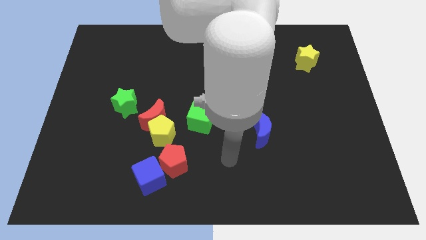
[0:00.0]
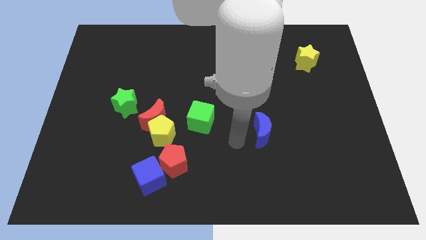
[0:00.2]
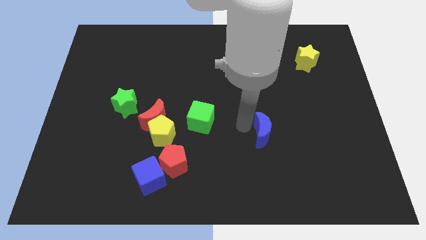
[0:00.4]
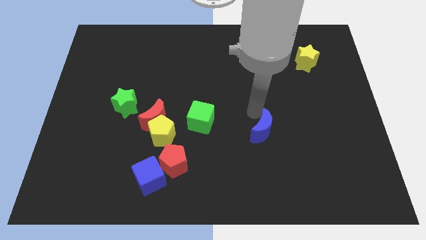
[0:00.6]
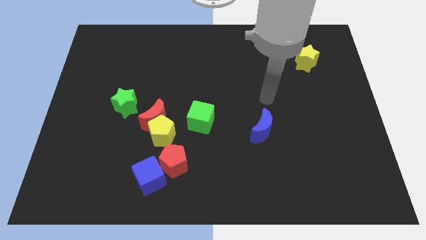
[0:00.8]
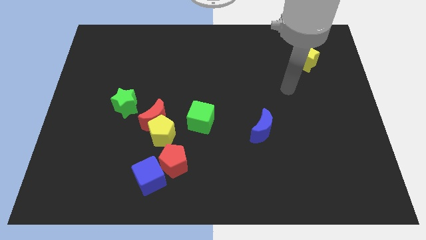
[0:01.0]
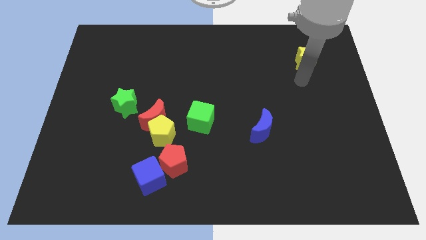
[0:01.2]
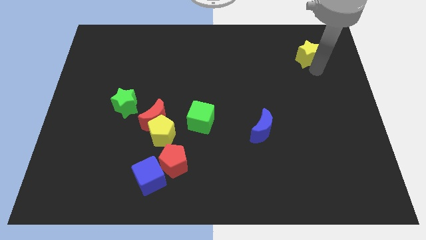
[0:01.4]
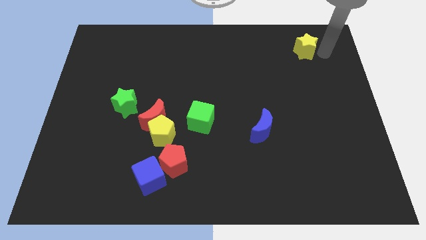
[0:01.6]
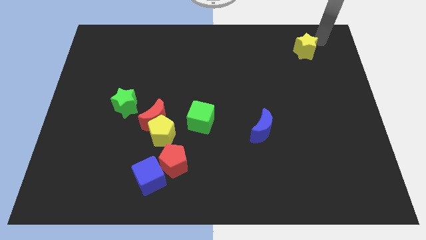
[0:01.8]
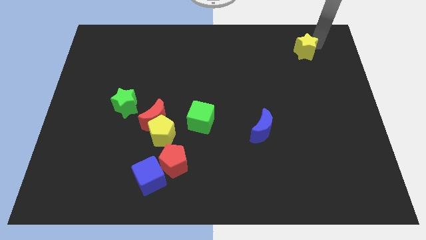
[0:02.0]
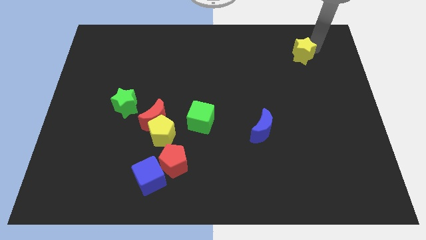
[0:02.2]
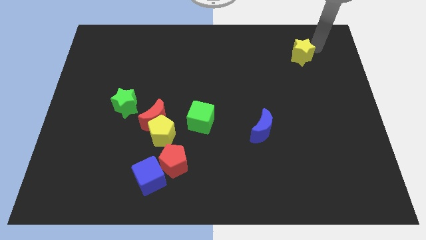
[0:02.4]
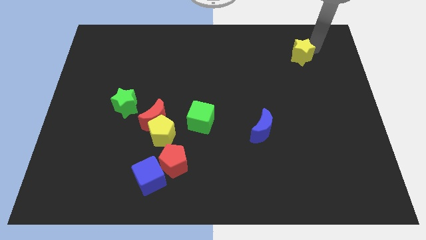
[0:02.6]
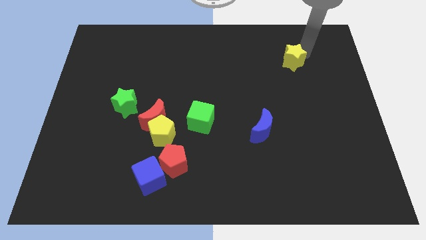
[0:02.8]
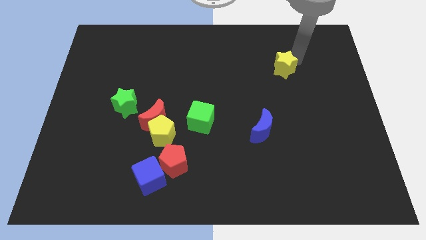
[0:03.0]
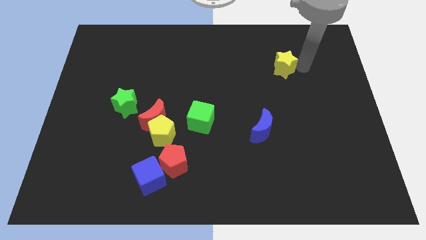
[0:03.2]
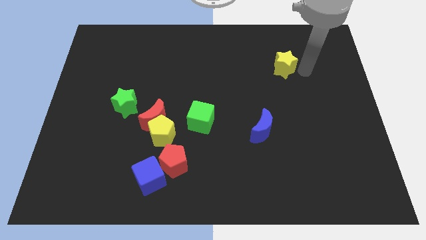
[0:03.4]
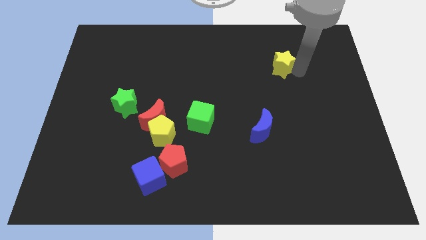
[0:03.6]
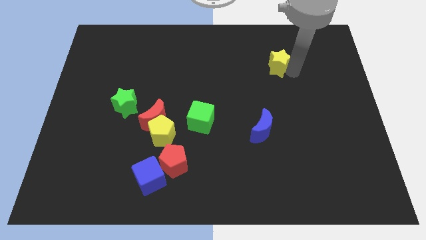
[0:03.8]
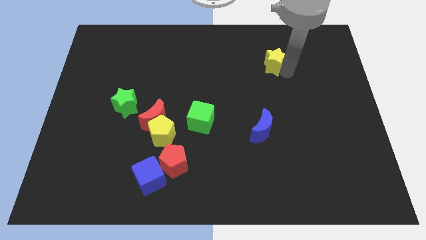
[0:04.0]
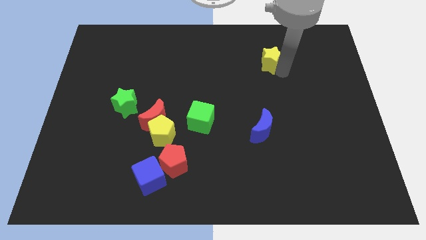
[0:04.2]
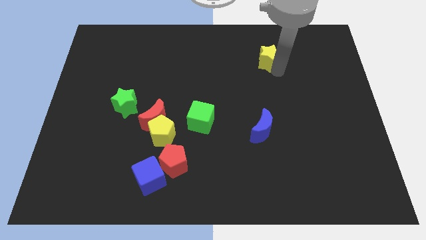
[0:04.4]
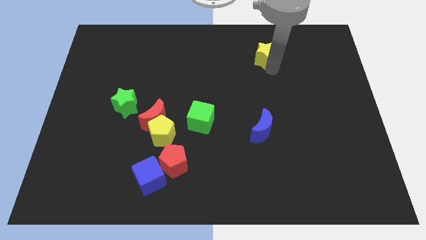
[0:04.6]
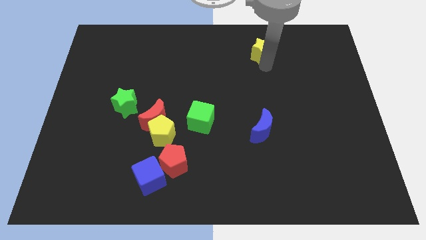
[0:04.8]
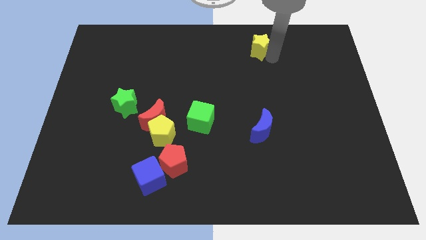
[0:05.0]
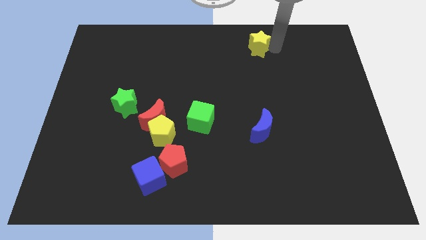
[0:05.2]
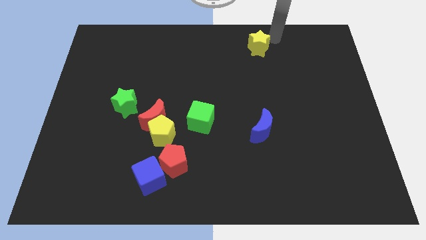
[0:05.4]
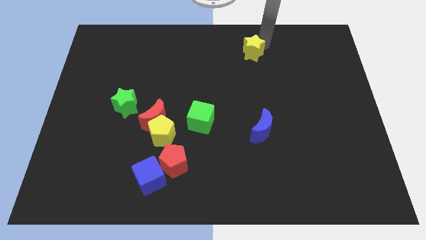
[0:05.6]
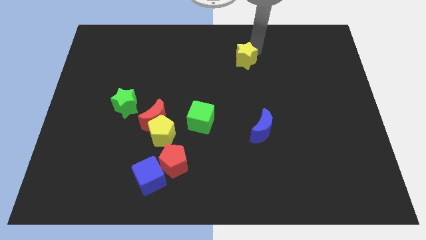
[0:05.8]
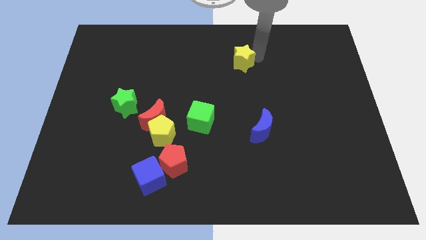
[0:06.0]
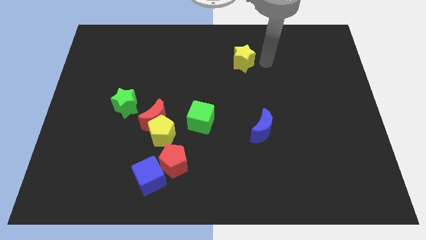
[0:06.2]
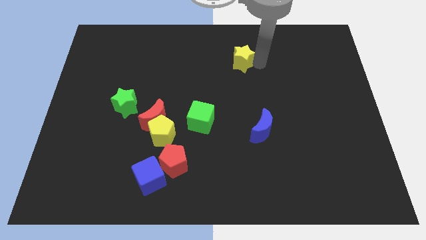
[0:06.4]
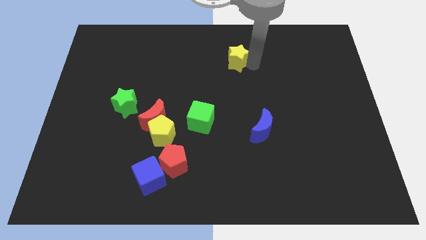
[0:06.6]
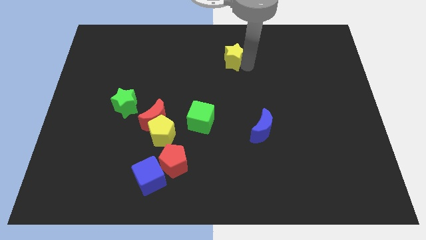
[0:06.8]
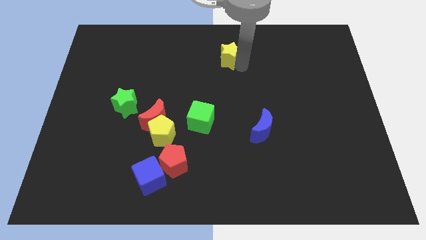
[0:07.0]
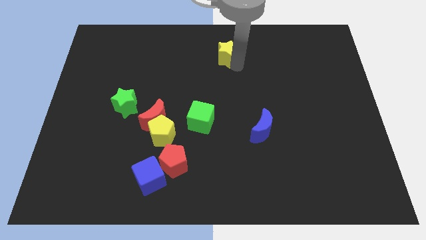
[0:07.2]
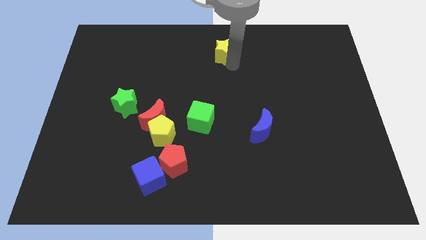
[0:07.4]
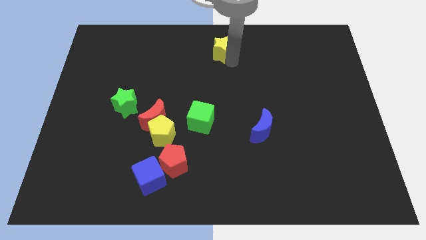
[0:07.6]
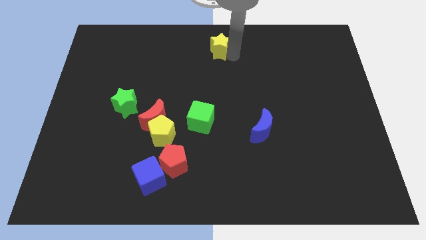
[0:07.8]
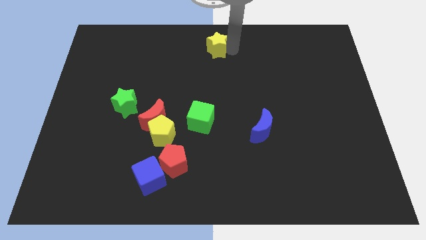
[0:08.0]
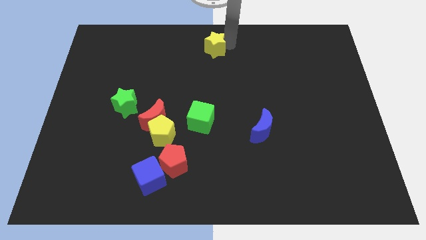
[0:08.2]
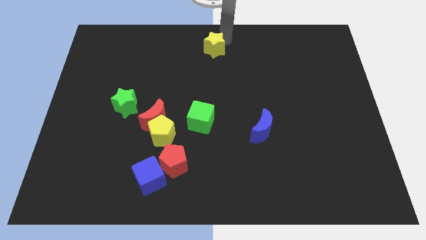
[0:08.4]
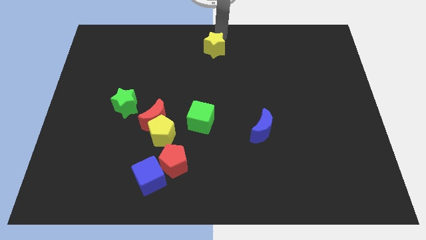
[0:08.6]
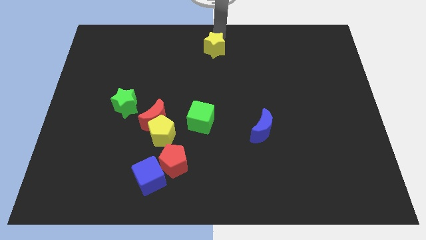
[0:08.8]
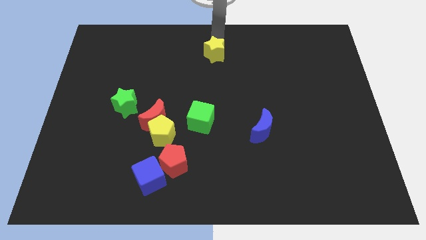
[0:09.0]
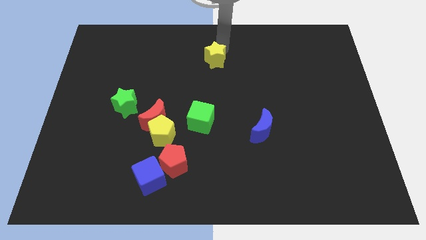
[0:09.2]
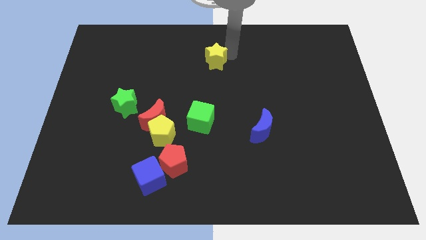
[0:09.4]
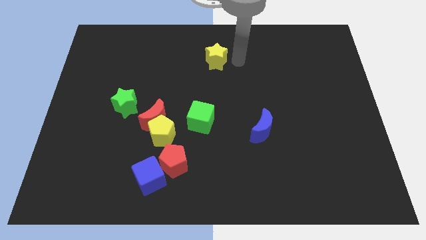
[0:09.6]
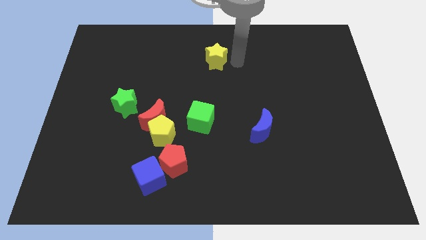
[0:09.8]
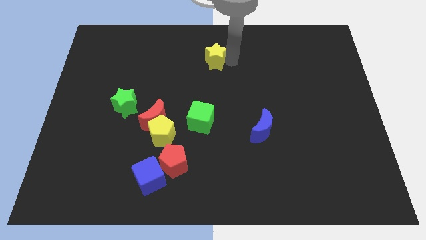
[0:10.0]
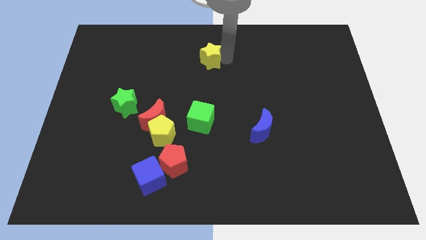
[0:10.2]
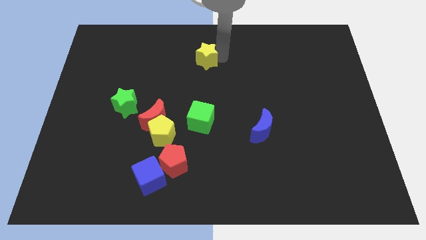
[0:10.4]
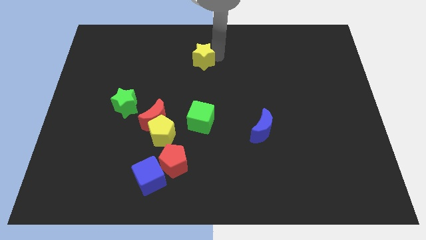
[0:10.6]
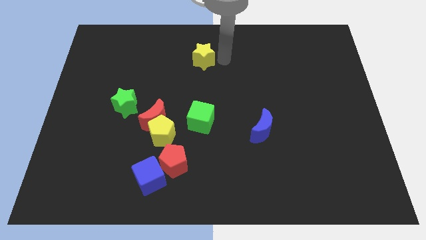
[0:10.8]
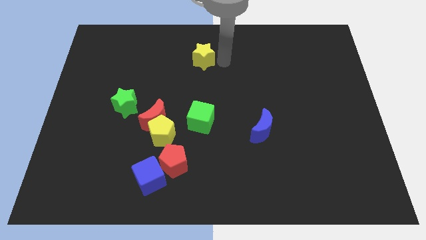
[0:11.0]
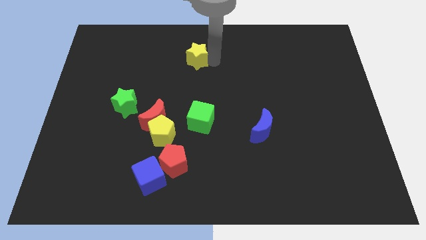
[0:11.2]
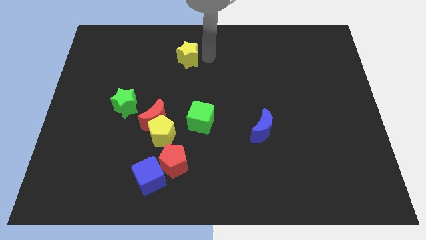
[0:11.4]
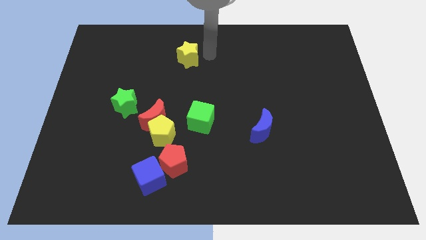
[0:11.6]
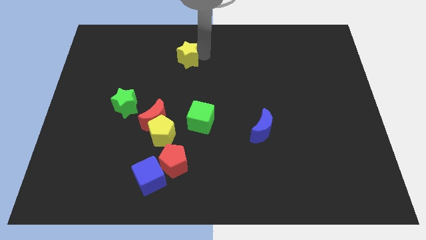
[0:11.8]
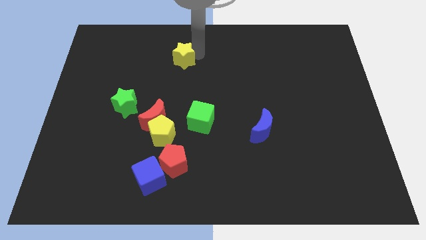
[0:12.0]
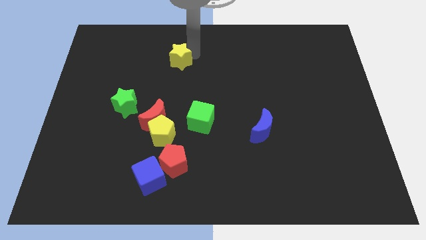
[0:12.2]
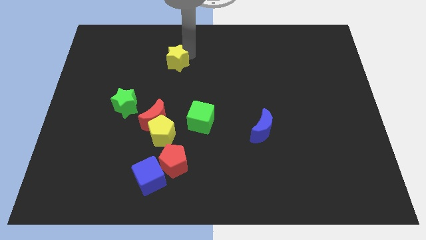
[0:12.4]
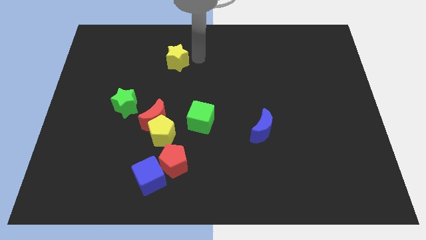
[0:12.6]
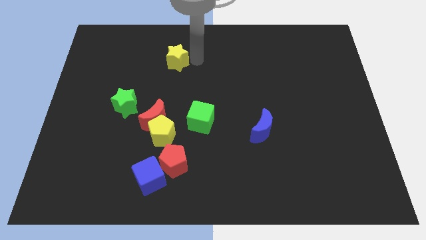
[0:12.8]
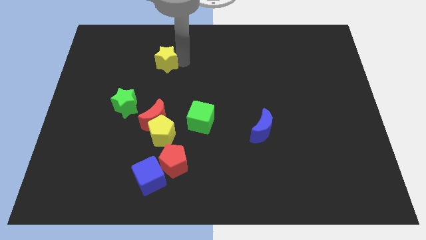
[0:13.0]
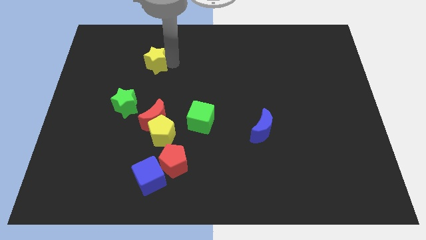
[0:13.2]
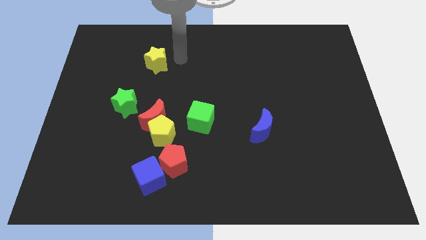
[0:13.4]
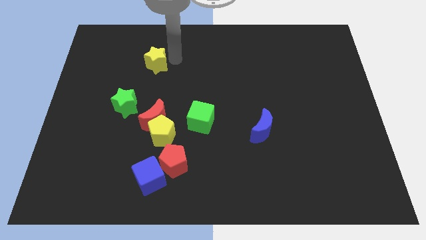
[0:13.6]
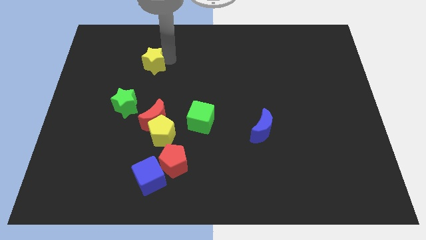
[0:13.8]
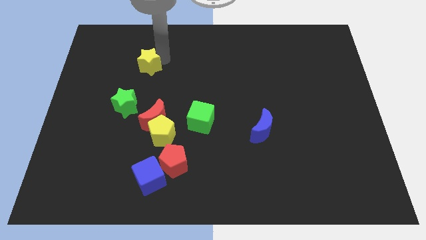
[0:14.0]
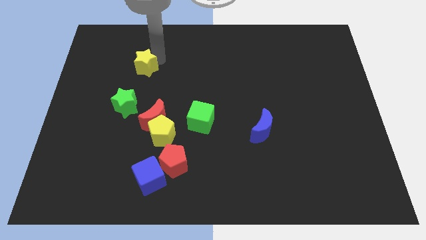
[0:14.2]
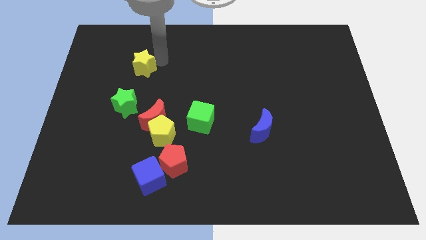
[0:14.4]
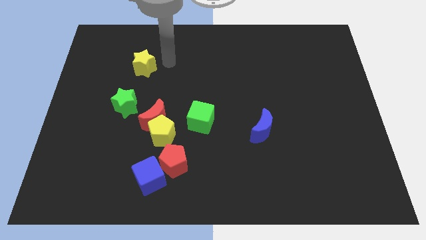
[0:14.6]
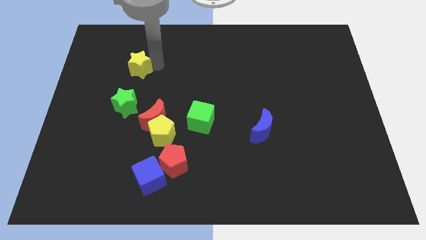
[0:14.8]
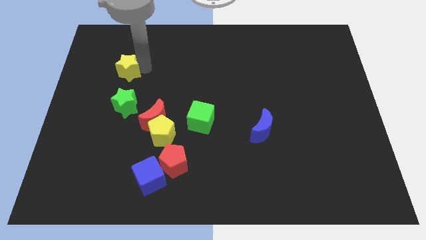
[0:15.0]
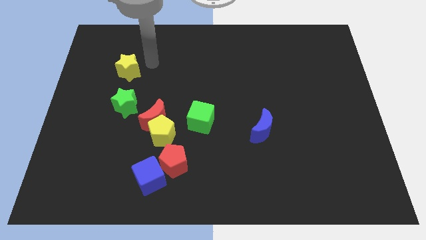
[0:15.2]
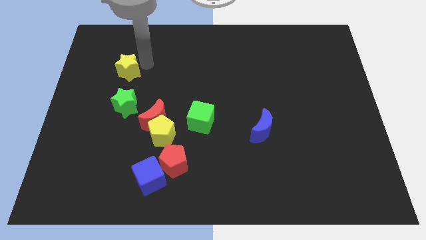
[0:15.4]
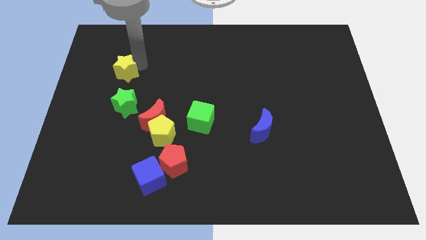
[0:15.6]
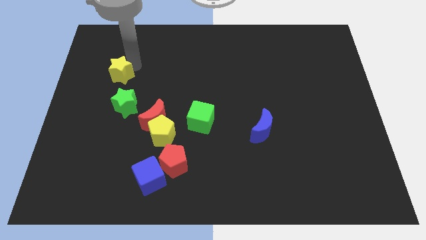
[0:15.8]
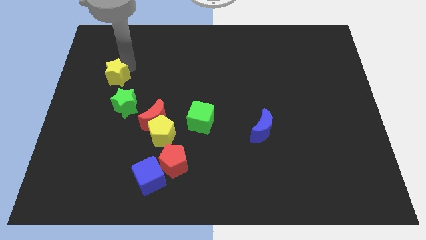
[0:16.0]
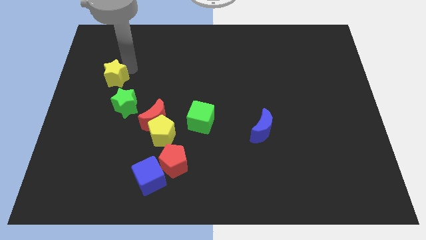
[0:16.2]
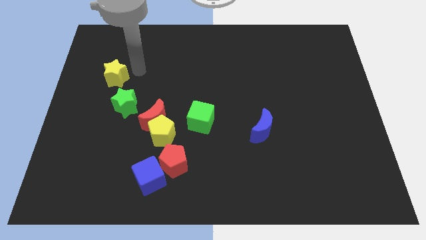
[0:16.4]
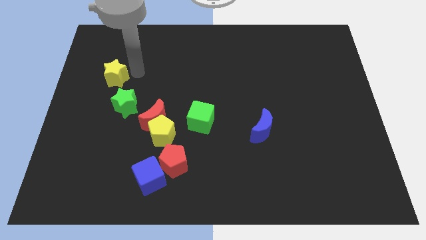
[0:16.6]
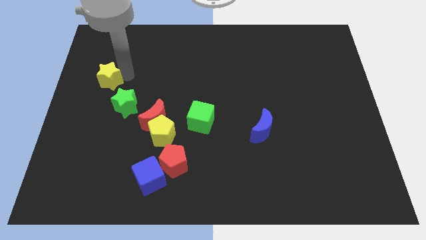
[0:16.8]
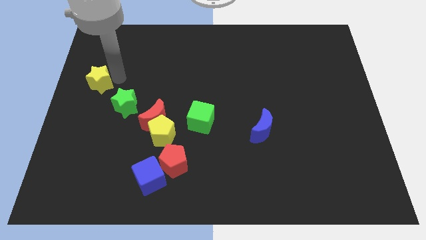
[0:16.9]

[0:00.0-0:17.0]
move the yellow star to the left side of the board
